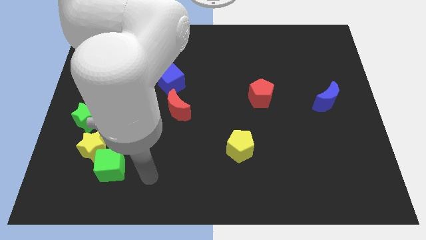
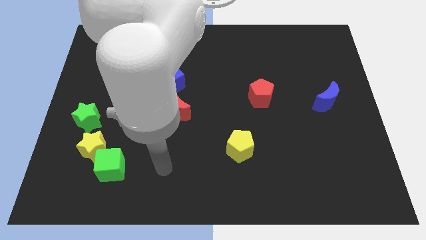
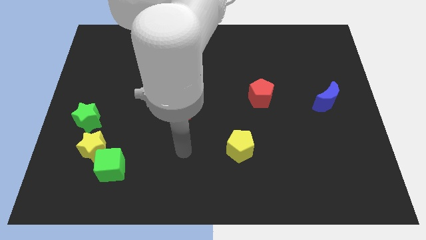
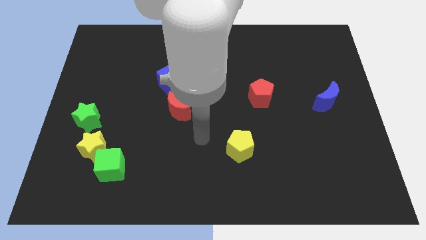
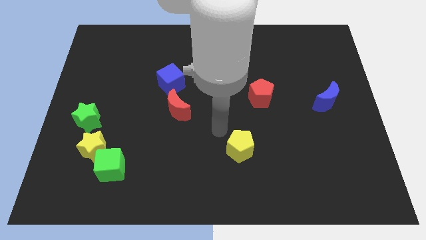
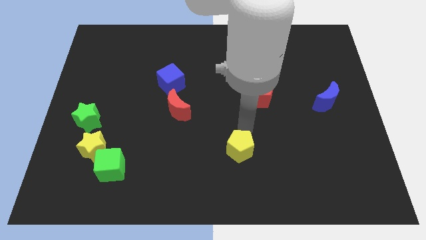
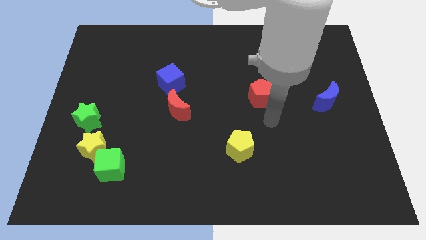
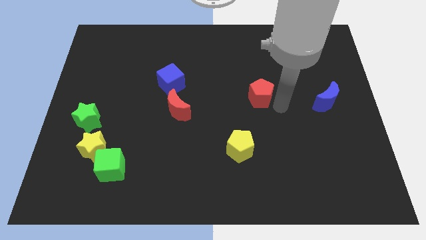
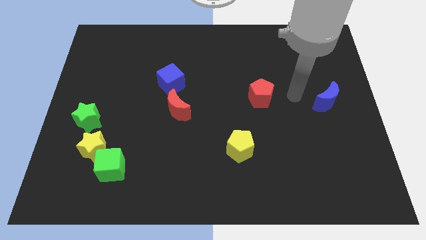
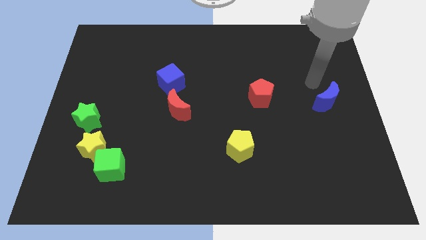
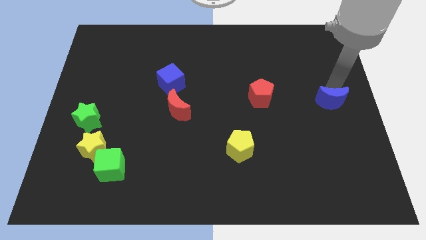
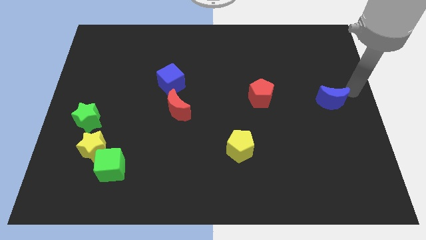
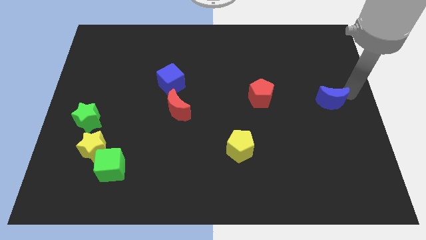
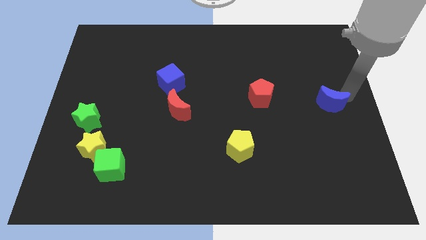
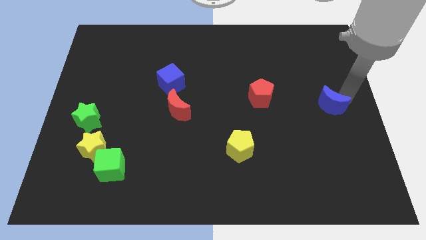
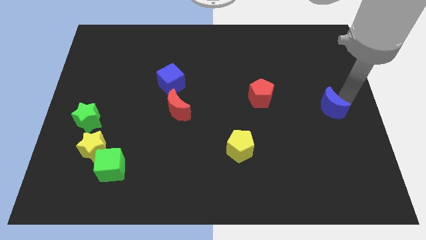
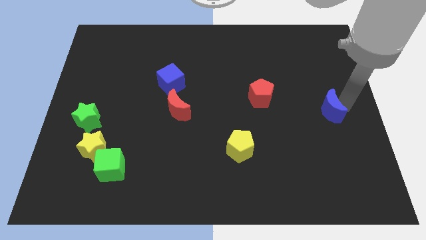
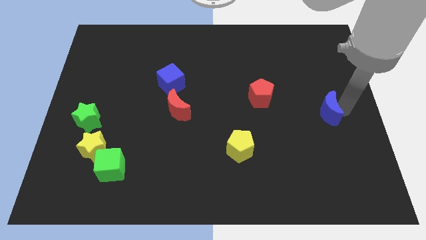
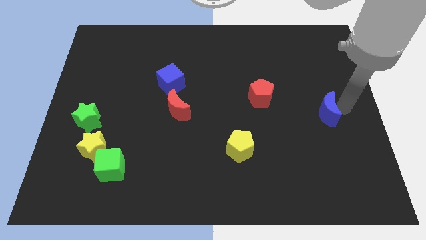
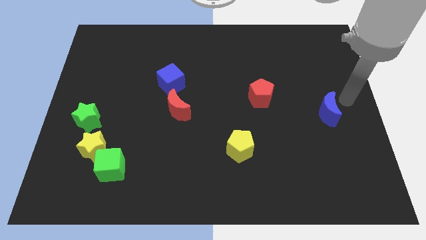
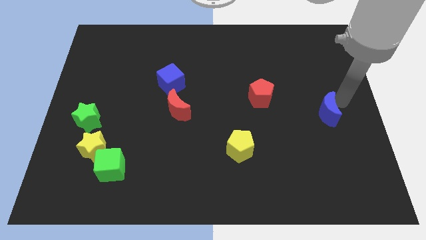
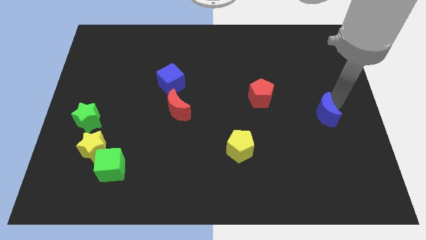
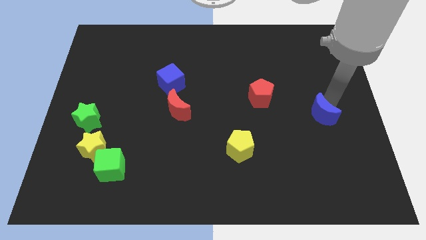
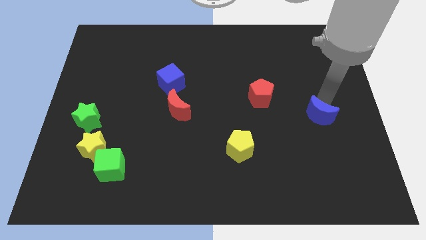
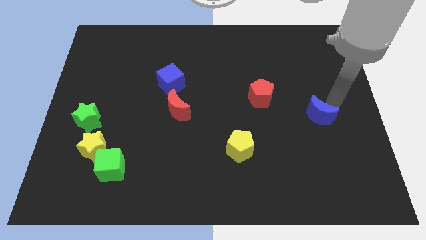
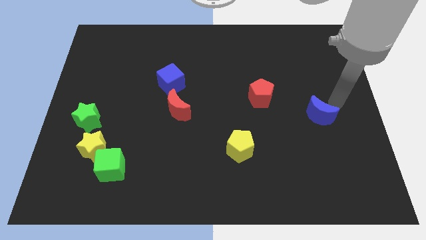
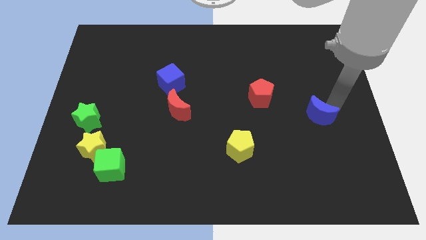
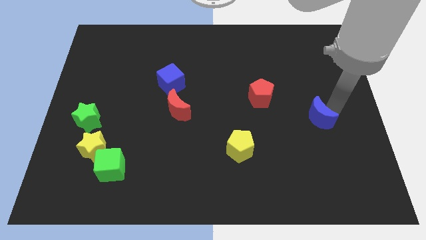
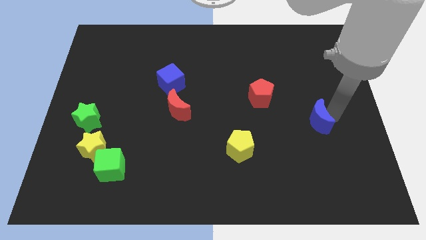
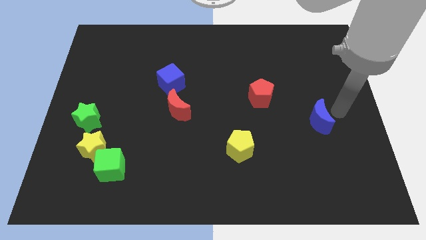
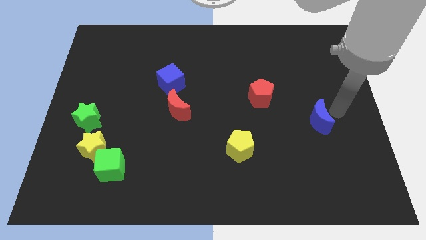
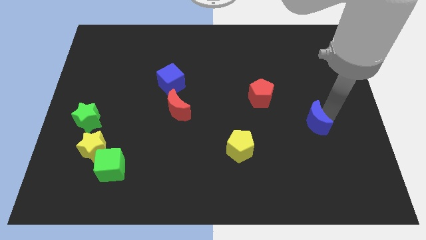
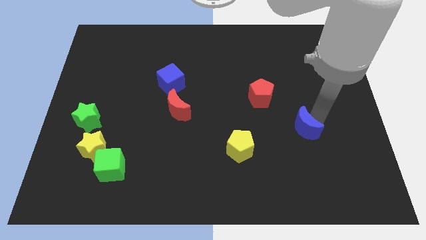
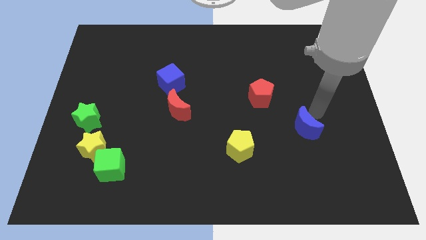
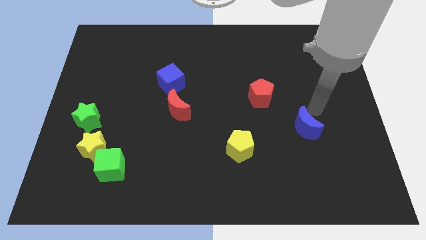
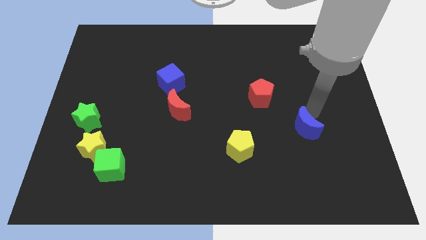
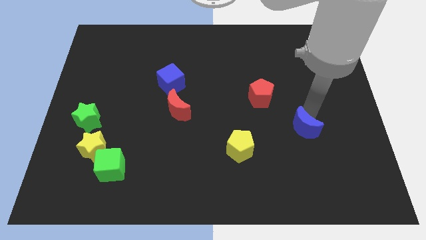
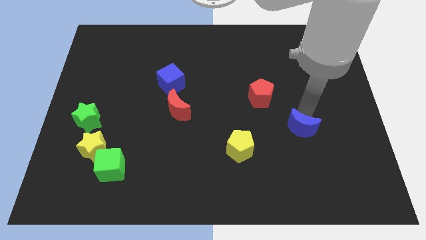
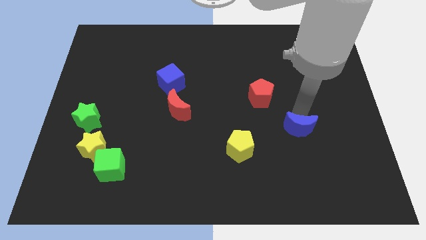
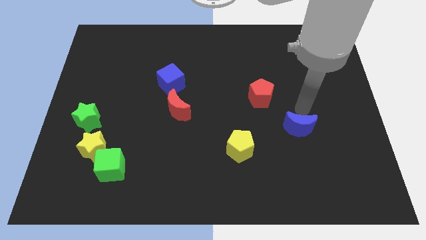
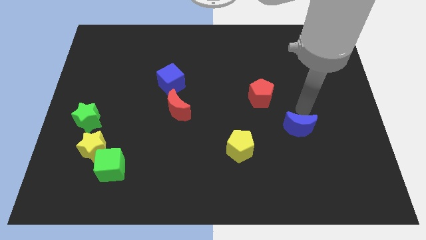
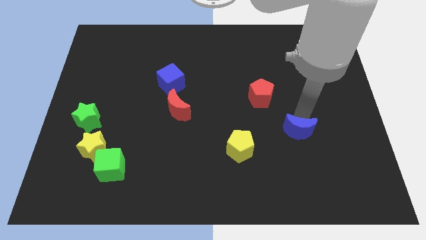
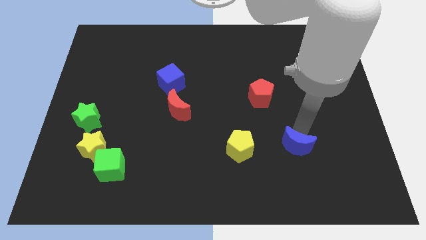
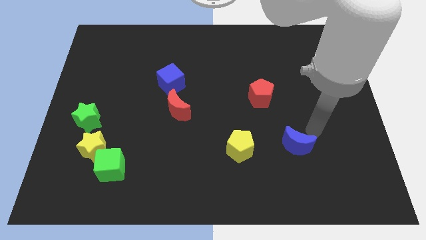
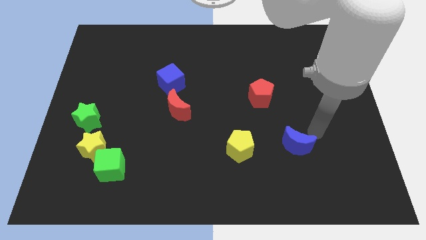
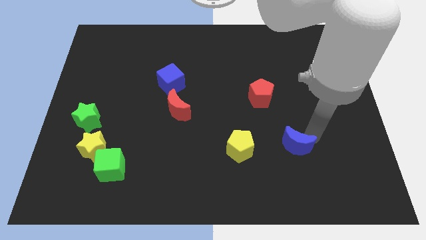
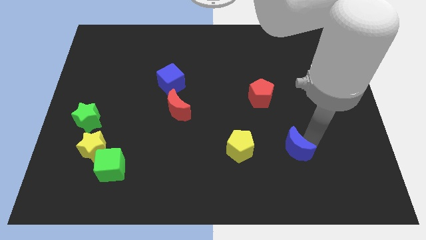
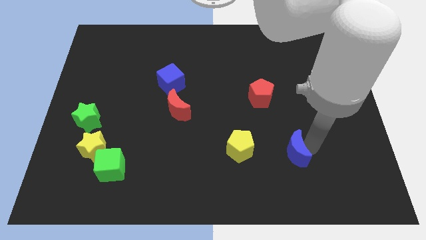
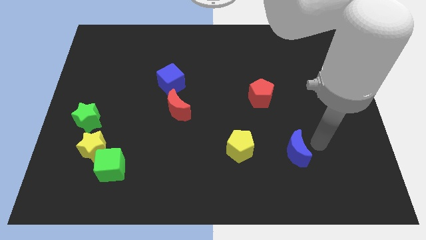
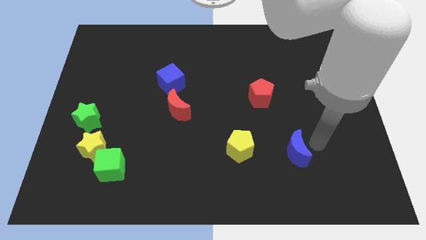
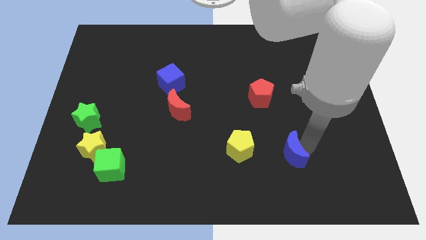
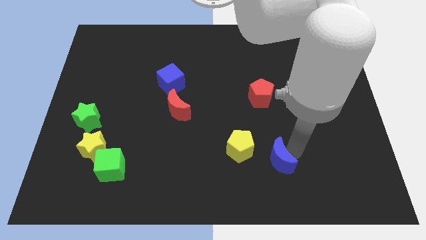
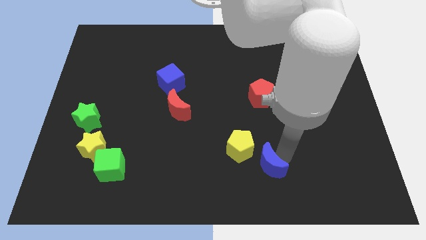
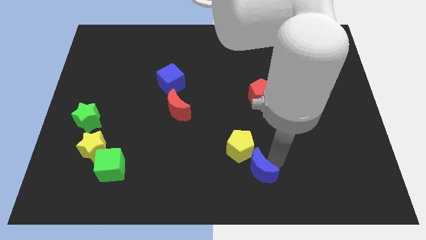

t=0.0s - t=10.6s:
push the blue moon to the bottom side

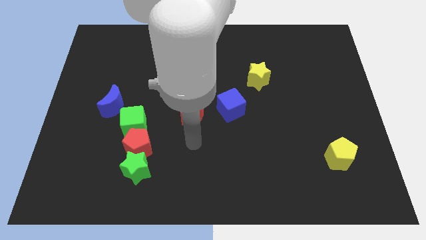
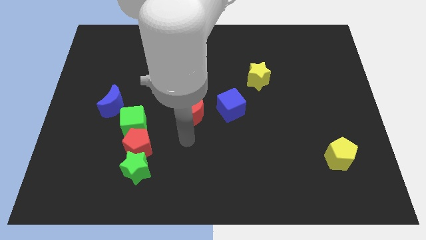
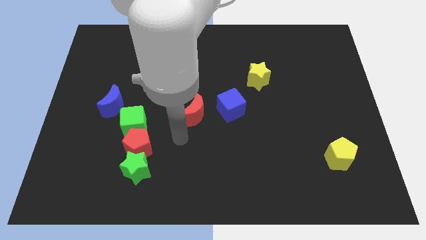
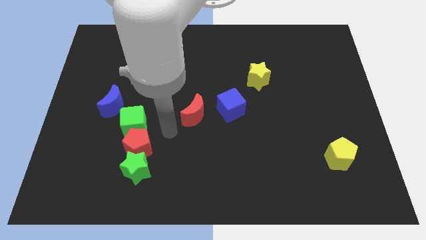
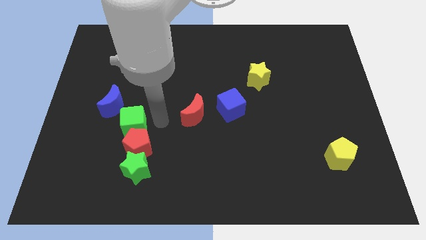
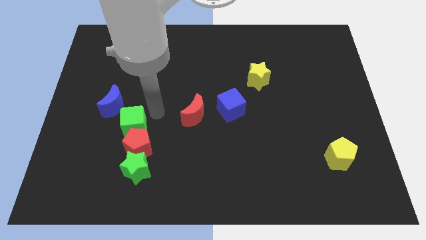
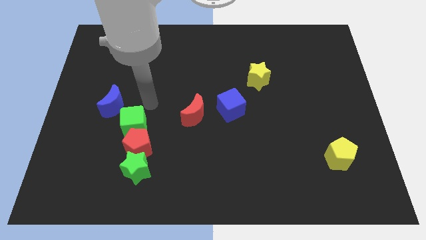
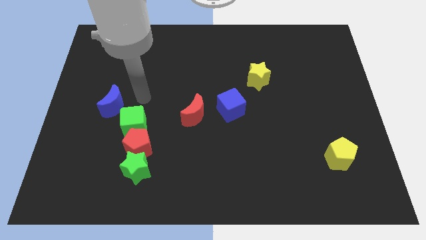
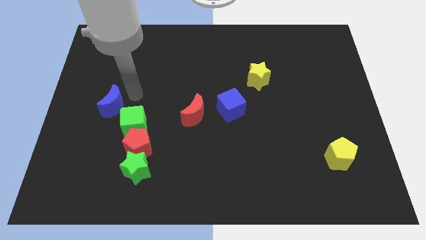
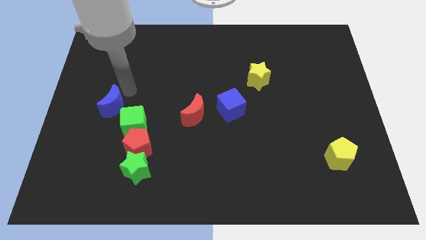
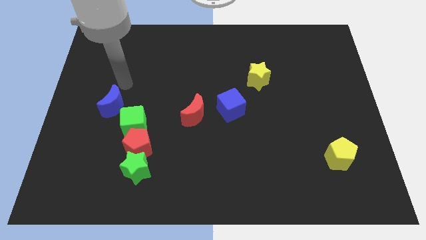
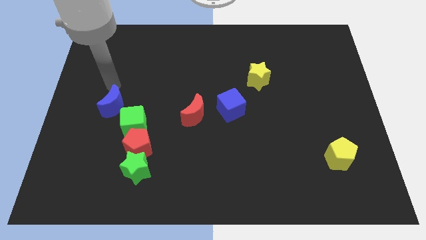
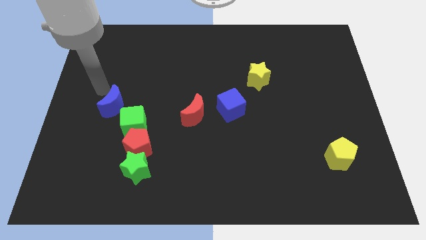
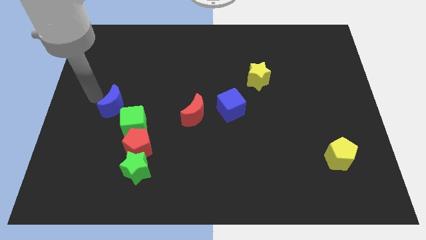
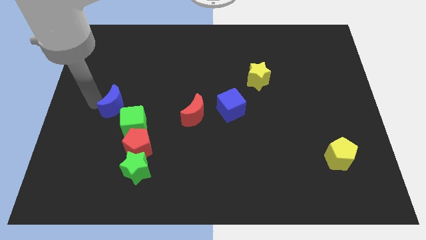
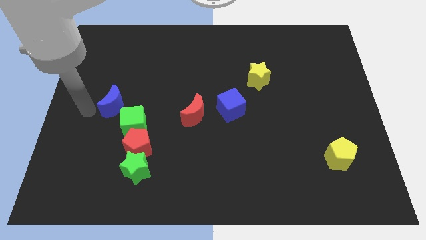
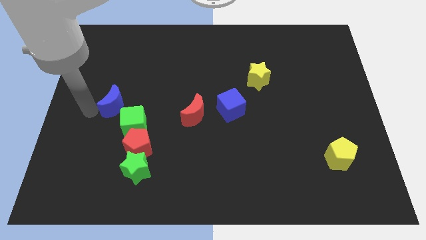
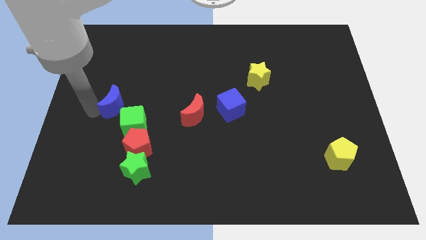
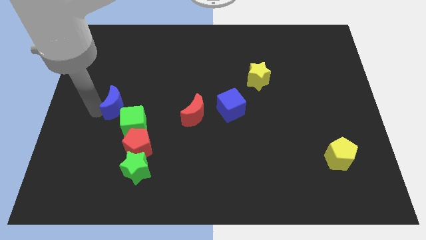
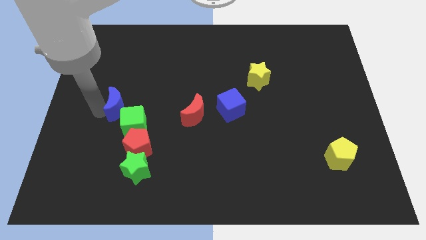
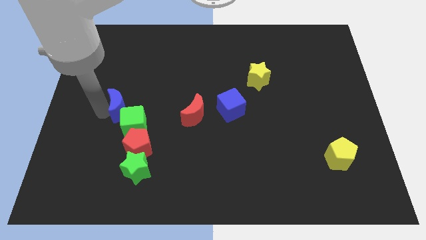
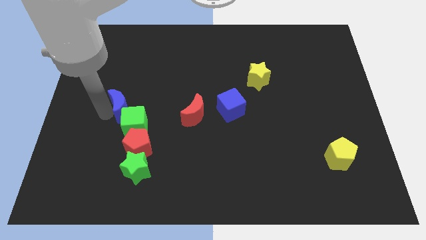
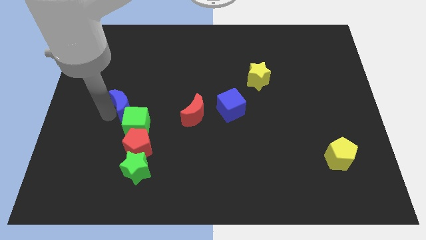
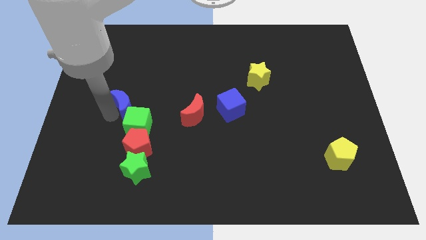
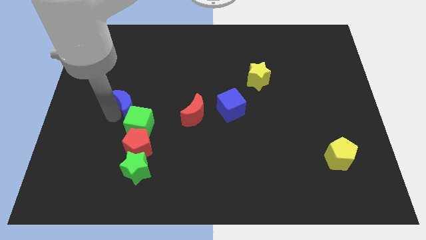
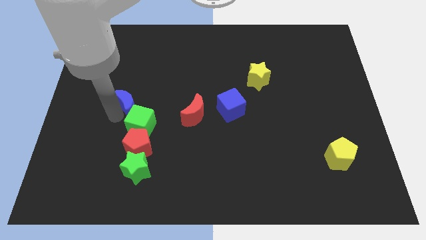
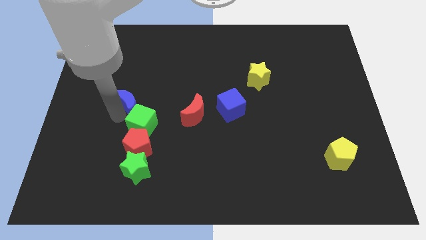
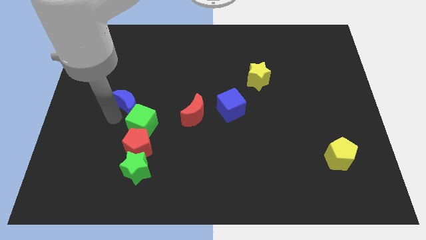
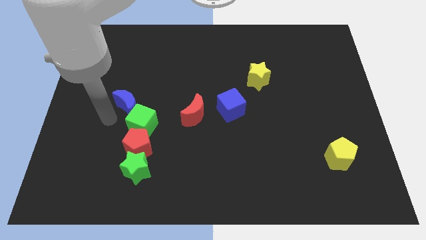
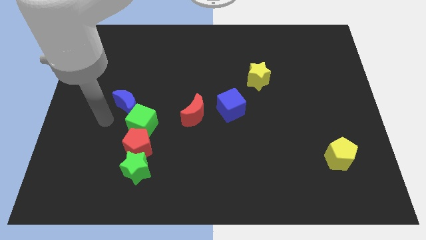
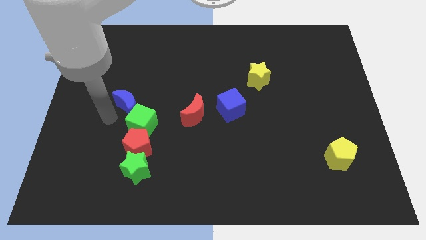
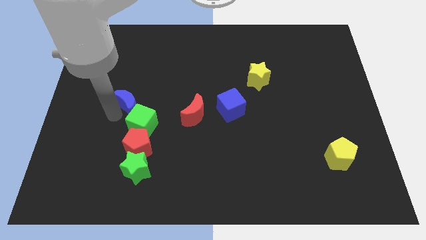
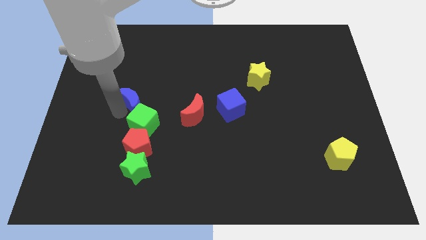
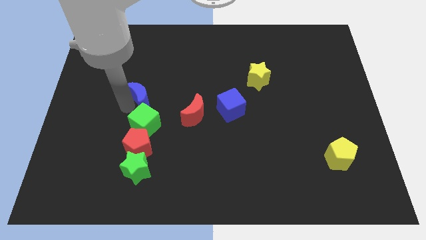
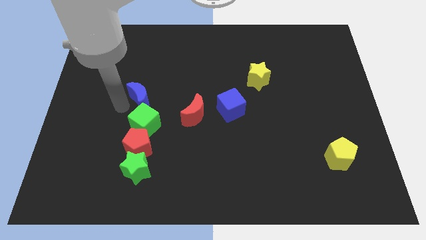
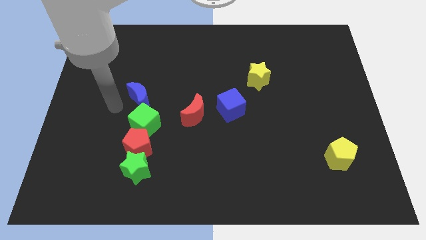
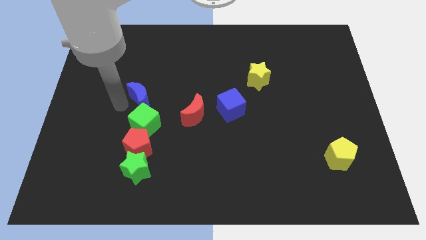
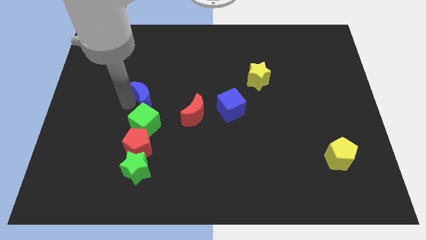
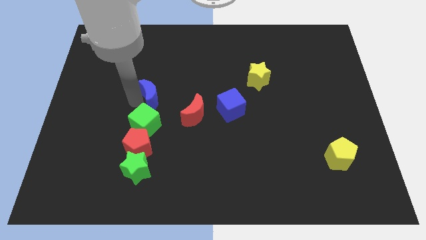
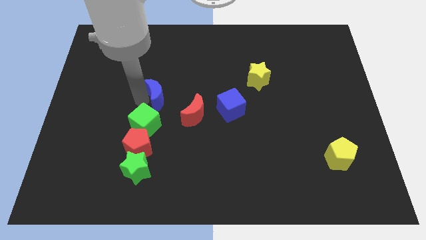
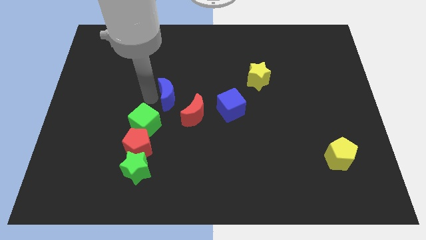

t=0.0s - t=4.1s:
push the blue moon to the center of the board
